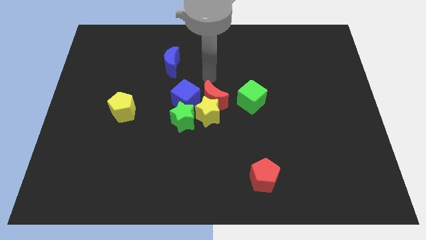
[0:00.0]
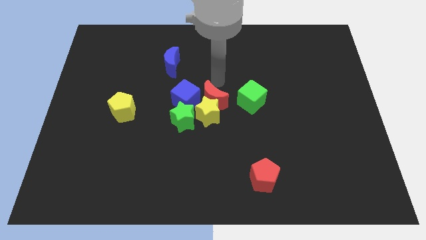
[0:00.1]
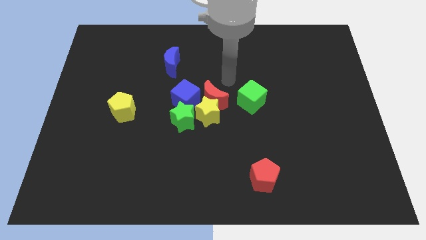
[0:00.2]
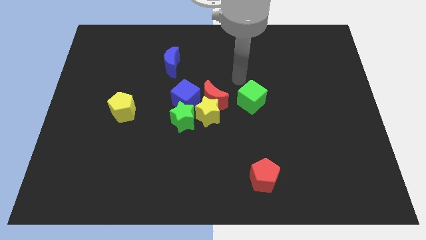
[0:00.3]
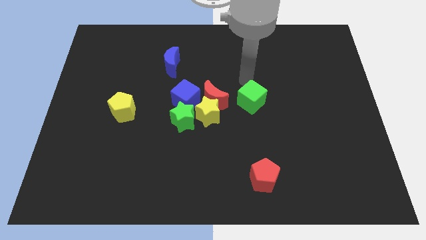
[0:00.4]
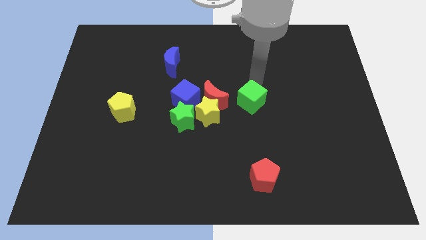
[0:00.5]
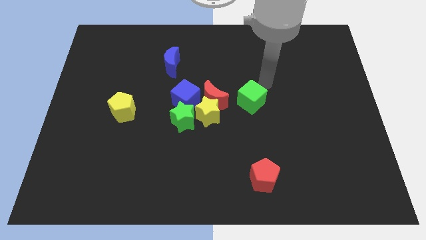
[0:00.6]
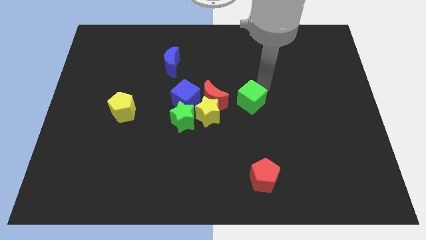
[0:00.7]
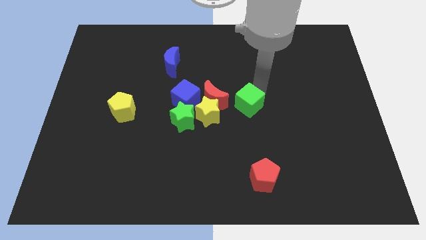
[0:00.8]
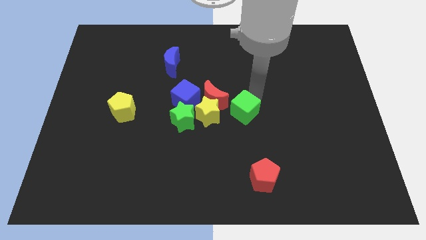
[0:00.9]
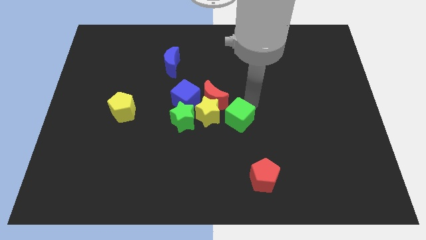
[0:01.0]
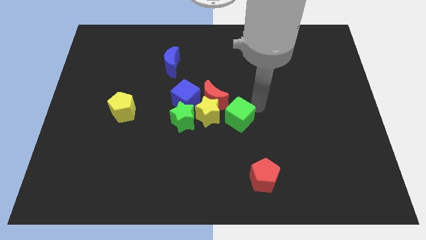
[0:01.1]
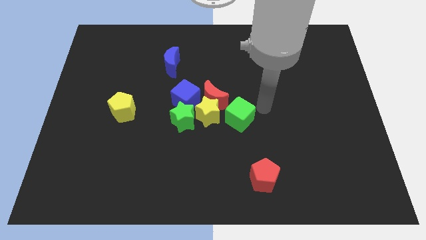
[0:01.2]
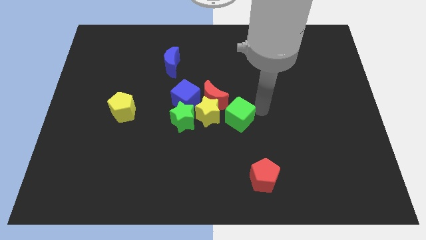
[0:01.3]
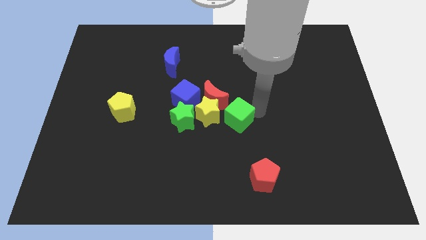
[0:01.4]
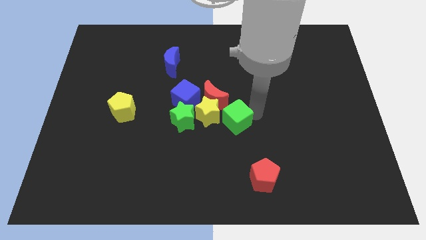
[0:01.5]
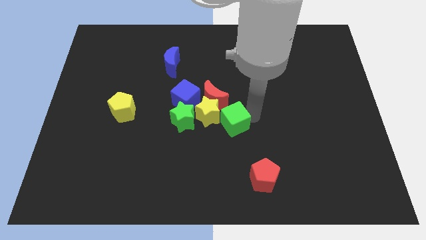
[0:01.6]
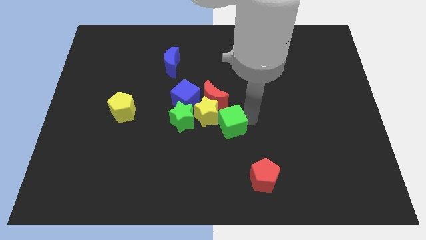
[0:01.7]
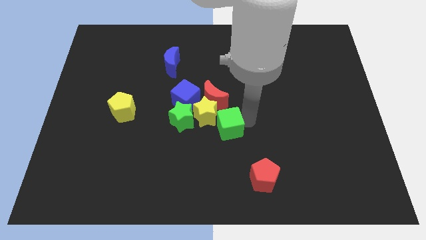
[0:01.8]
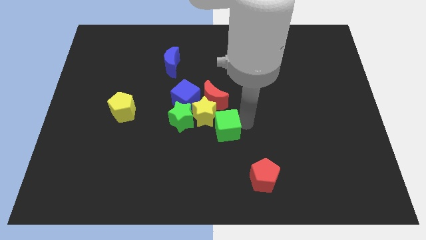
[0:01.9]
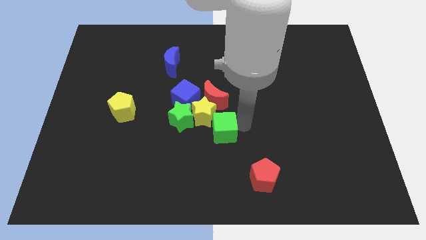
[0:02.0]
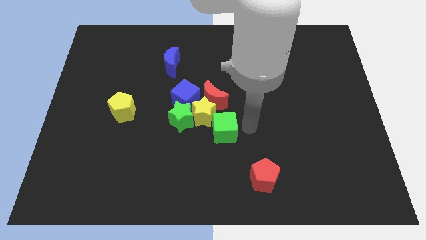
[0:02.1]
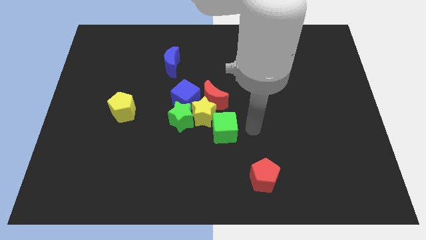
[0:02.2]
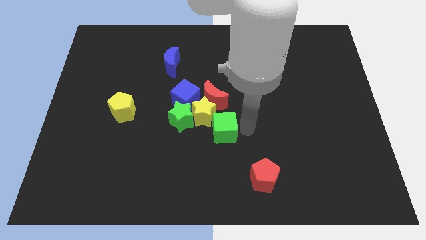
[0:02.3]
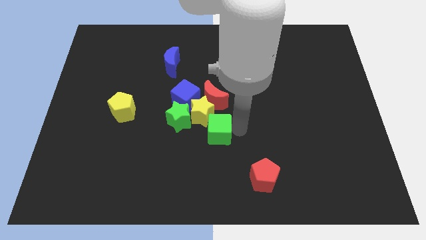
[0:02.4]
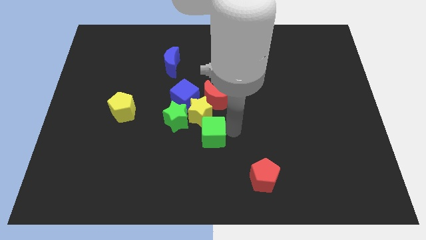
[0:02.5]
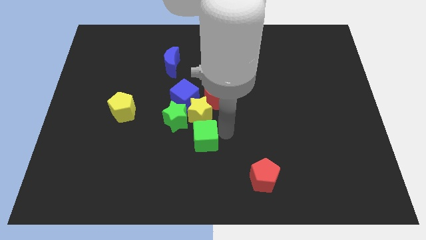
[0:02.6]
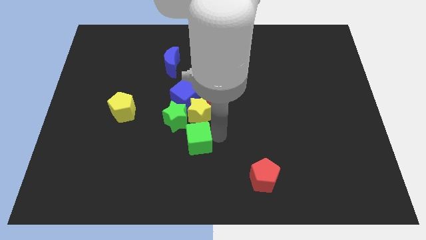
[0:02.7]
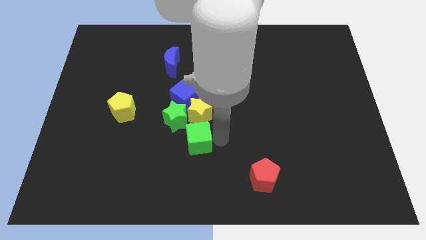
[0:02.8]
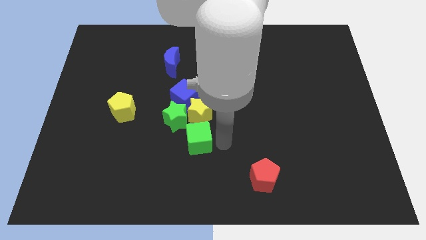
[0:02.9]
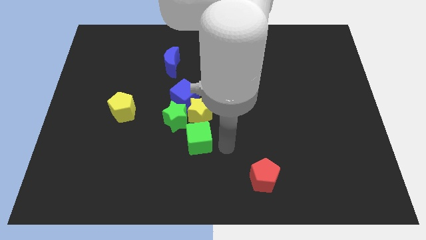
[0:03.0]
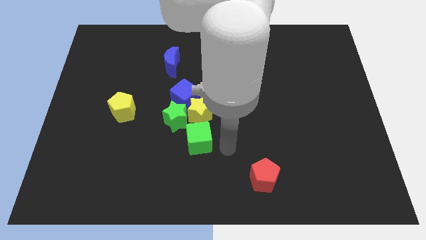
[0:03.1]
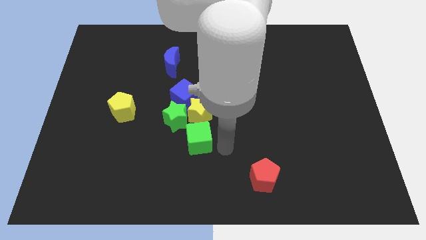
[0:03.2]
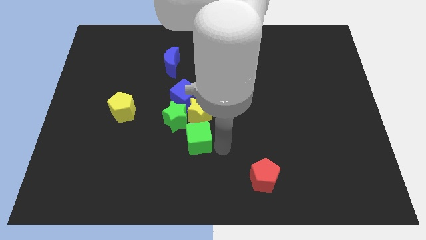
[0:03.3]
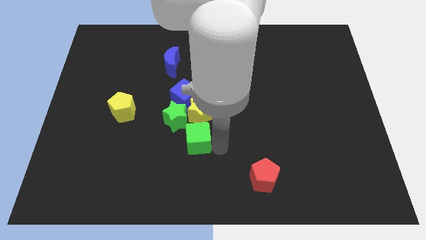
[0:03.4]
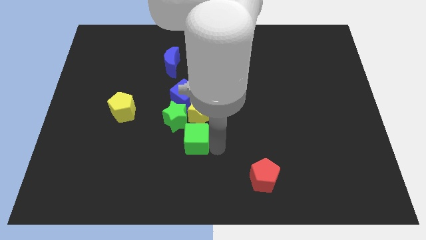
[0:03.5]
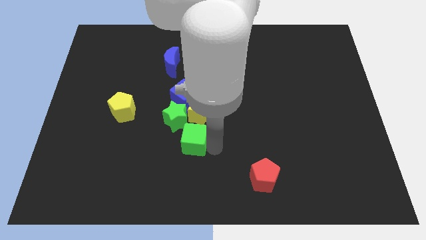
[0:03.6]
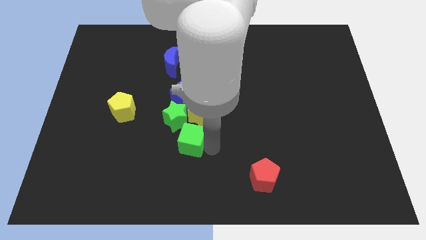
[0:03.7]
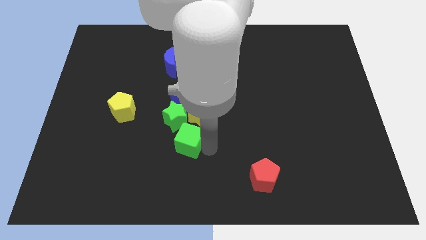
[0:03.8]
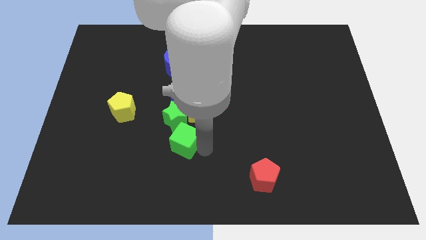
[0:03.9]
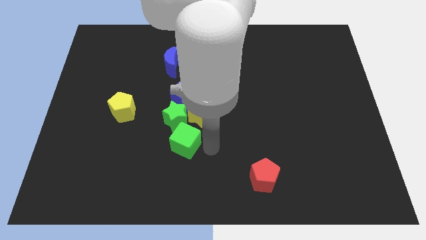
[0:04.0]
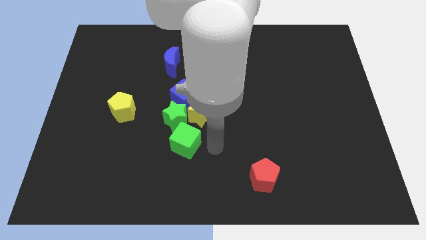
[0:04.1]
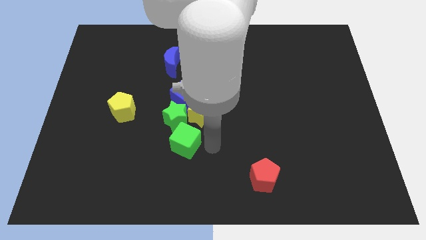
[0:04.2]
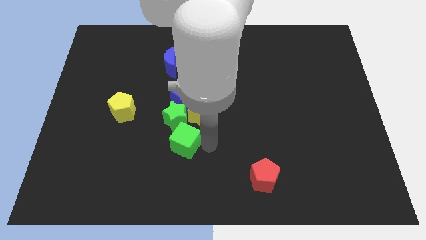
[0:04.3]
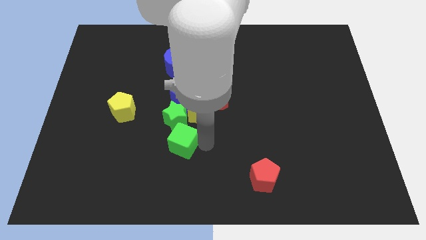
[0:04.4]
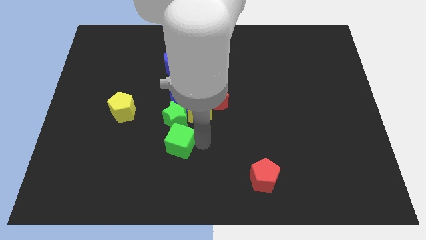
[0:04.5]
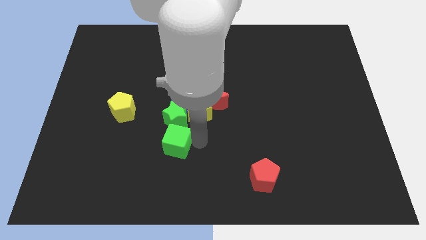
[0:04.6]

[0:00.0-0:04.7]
slide the green cube to the bottom left of the green star

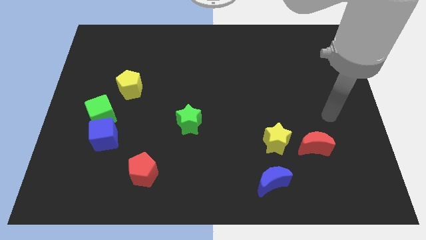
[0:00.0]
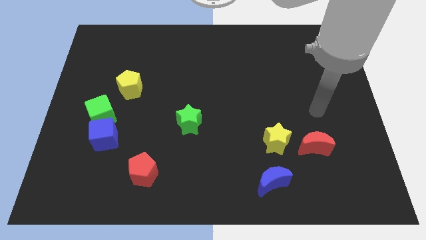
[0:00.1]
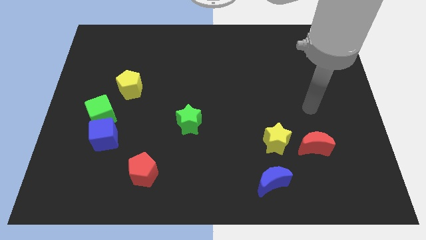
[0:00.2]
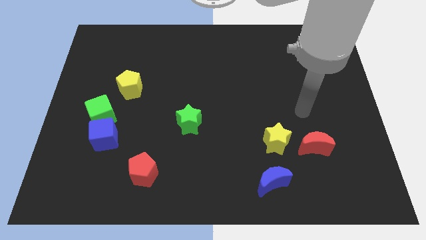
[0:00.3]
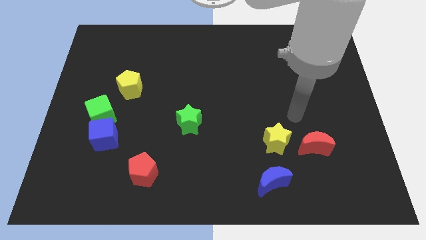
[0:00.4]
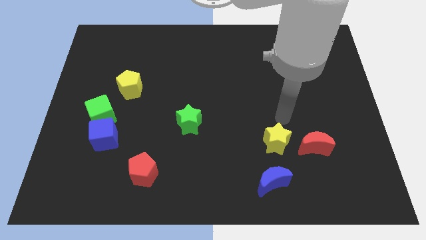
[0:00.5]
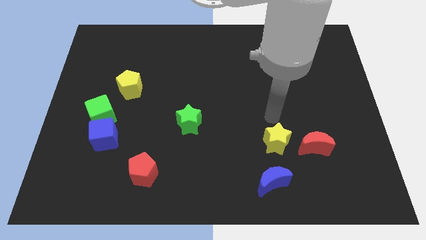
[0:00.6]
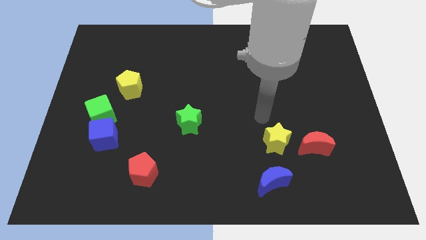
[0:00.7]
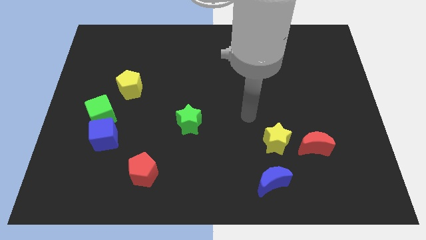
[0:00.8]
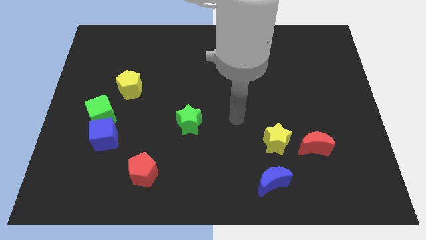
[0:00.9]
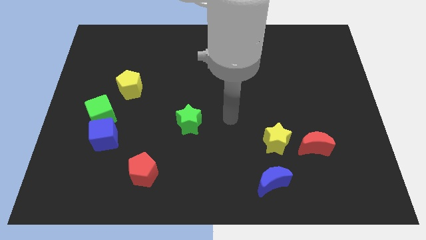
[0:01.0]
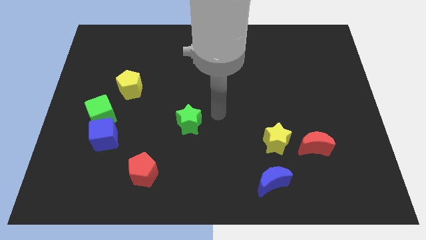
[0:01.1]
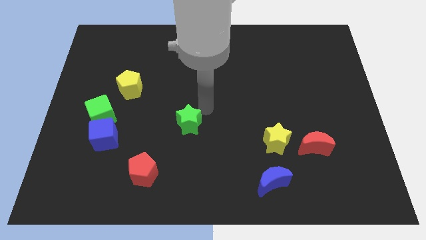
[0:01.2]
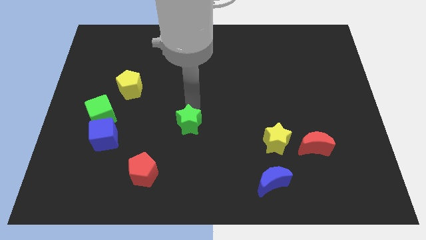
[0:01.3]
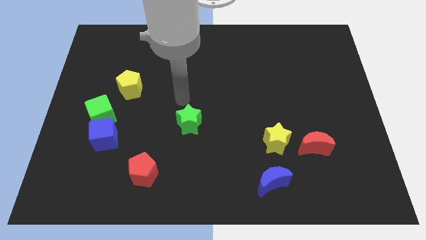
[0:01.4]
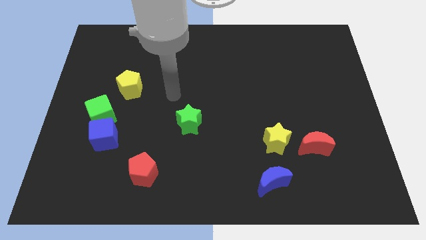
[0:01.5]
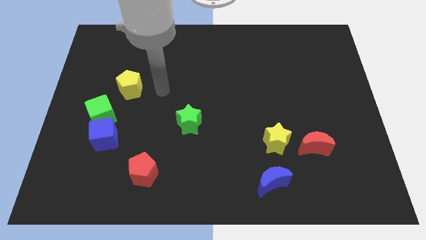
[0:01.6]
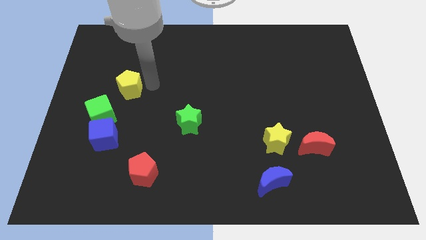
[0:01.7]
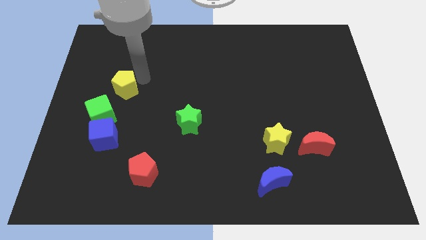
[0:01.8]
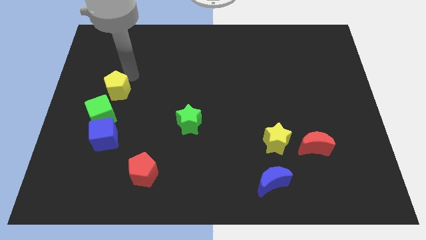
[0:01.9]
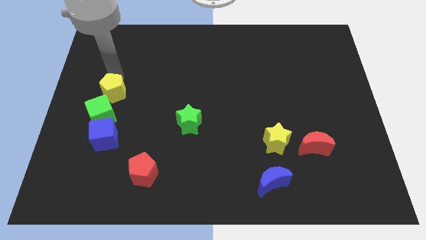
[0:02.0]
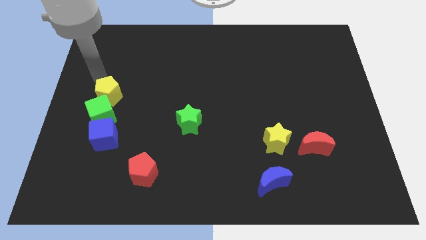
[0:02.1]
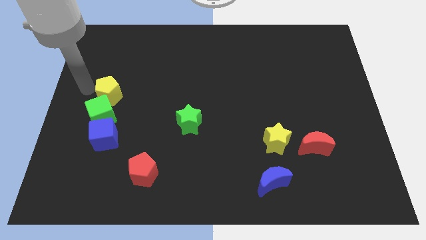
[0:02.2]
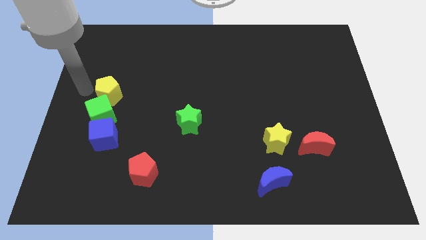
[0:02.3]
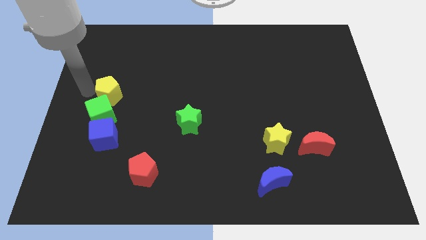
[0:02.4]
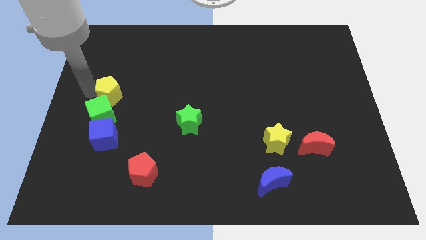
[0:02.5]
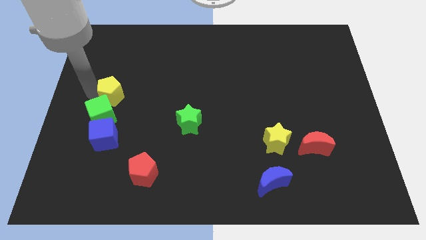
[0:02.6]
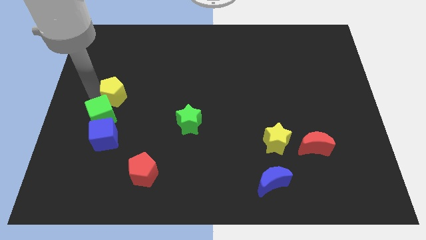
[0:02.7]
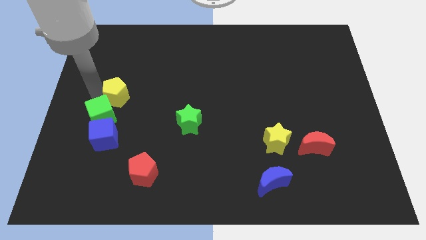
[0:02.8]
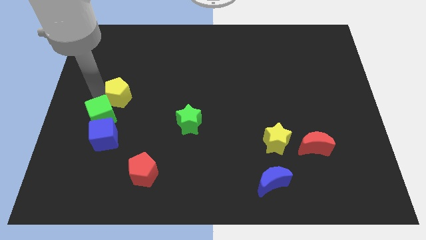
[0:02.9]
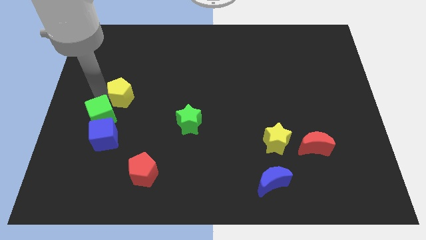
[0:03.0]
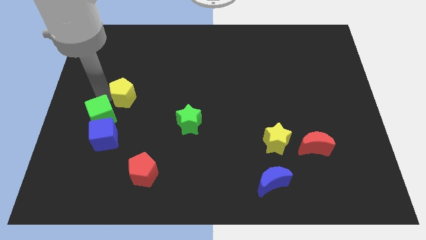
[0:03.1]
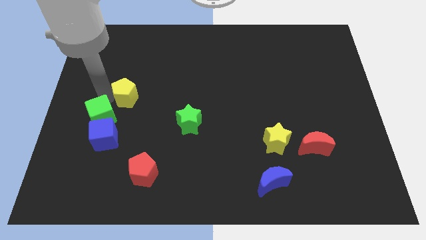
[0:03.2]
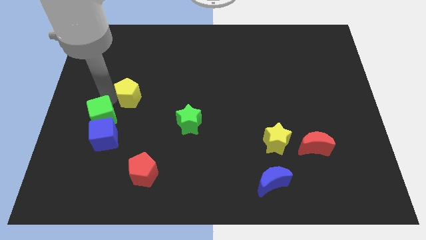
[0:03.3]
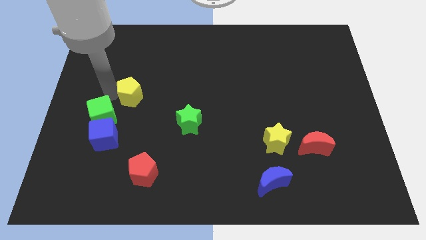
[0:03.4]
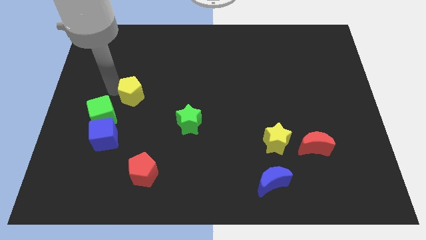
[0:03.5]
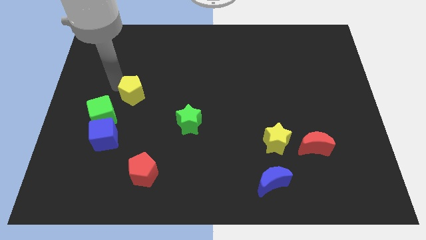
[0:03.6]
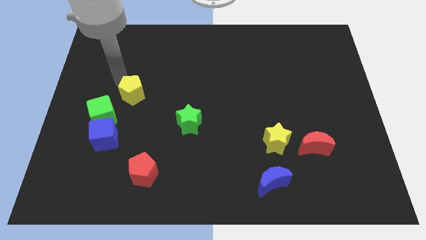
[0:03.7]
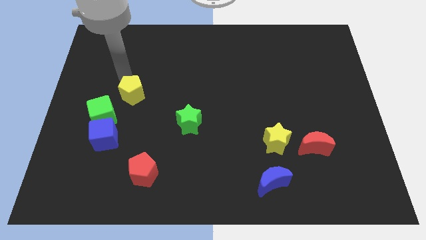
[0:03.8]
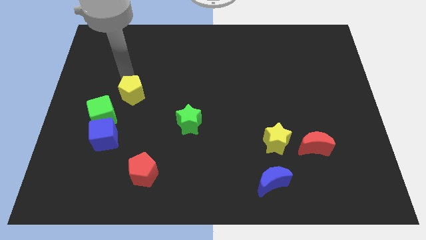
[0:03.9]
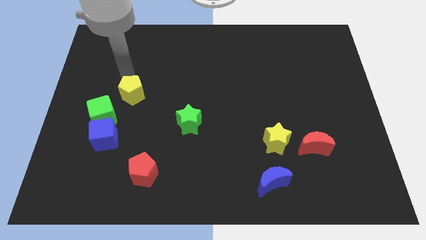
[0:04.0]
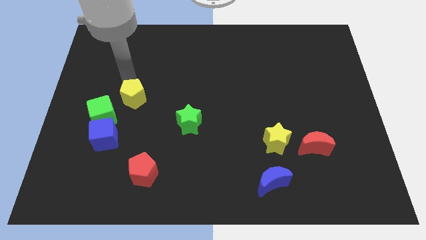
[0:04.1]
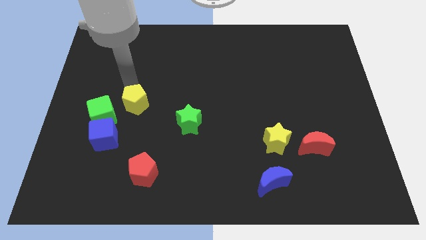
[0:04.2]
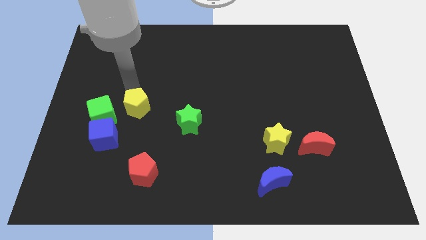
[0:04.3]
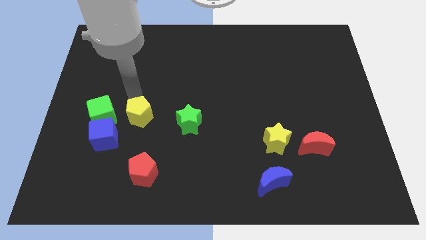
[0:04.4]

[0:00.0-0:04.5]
push the yellow pentagon above the red pentagon
